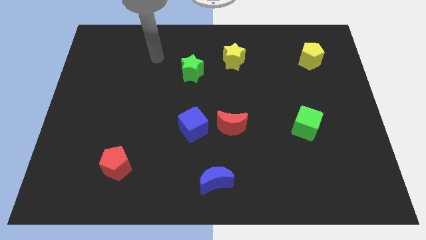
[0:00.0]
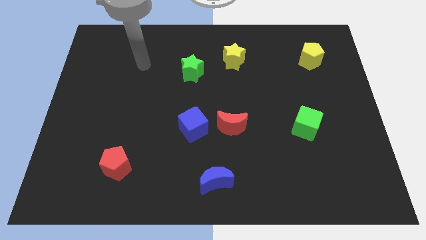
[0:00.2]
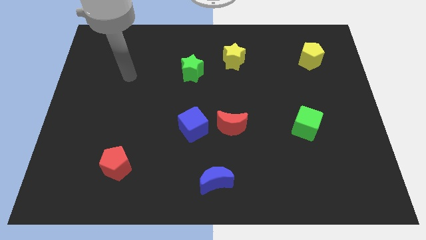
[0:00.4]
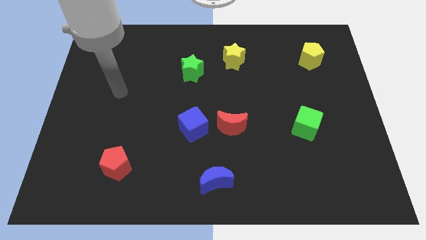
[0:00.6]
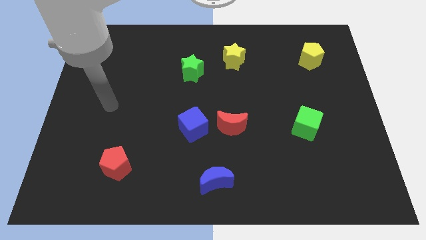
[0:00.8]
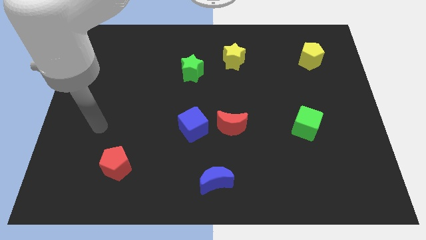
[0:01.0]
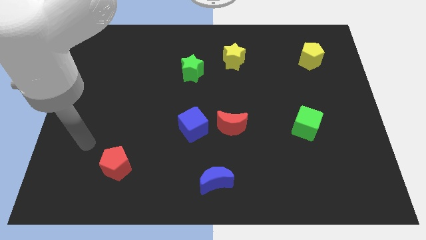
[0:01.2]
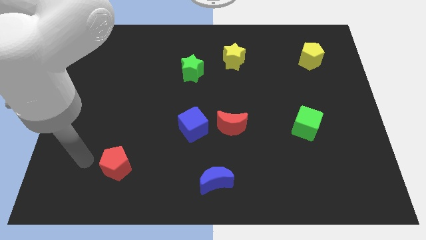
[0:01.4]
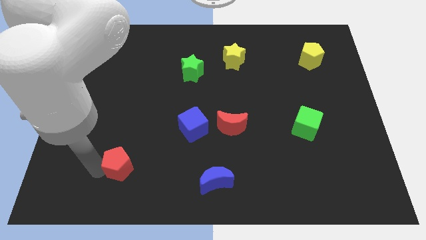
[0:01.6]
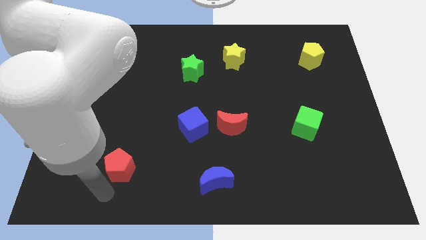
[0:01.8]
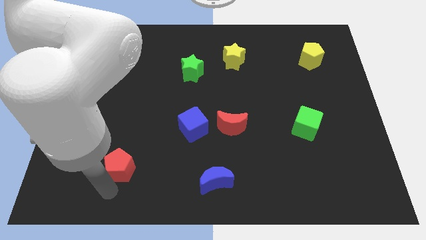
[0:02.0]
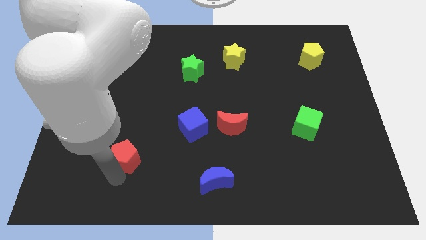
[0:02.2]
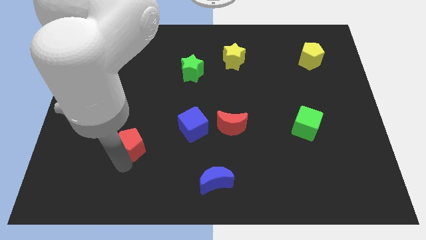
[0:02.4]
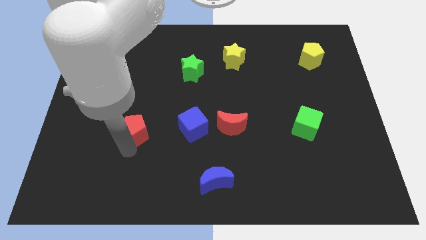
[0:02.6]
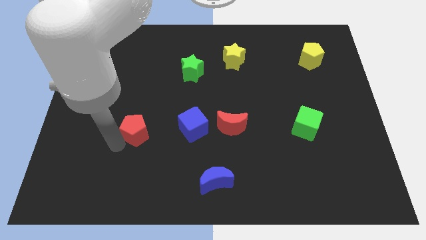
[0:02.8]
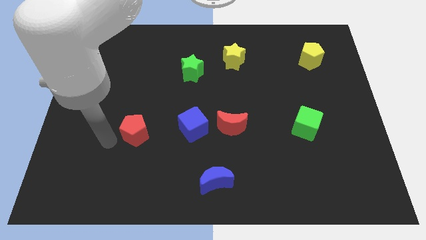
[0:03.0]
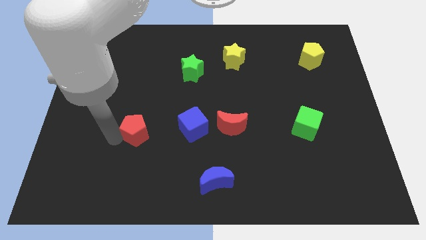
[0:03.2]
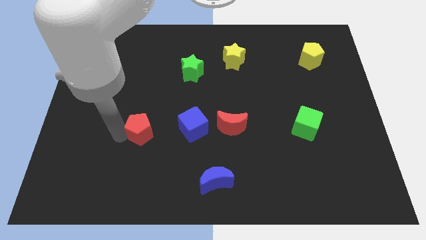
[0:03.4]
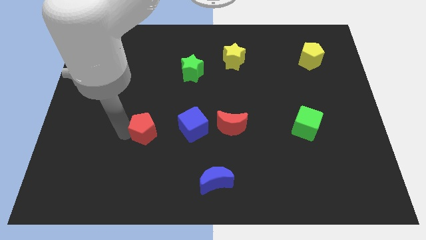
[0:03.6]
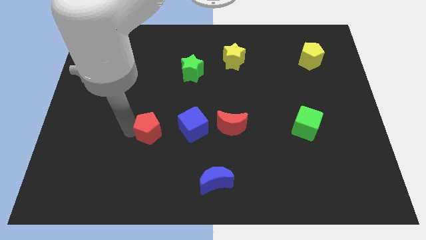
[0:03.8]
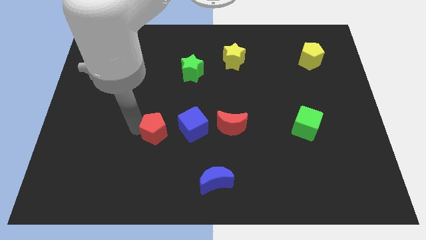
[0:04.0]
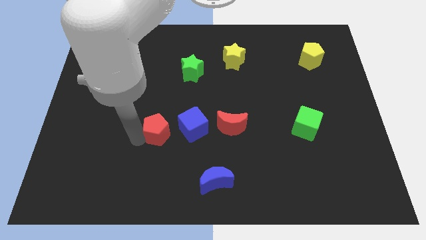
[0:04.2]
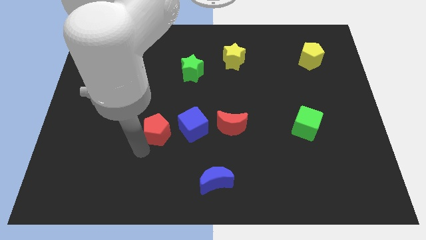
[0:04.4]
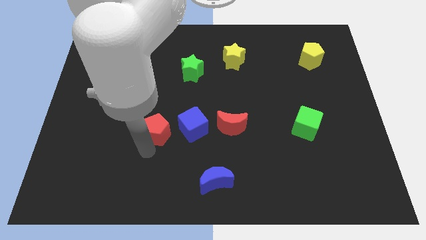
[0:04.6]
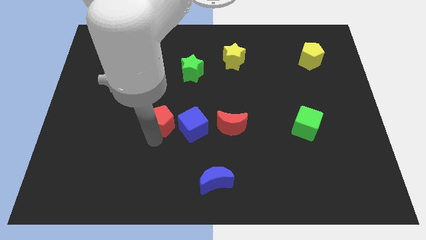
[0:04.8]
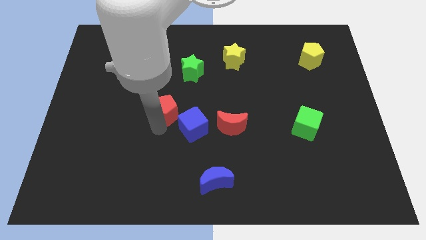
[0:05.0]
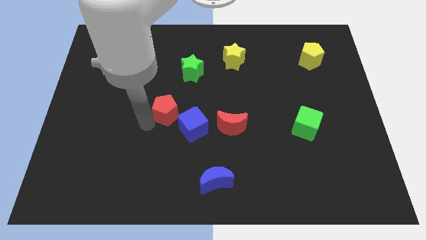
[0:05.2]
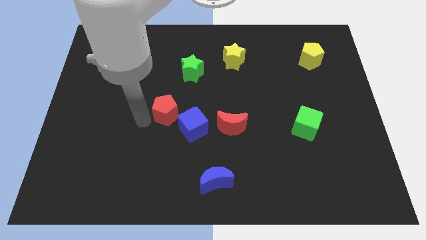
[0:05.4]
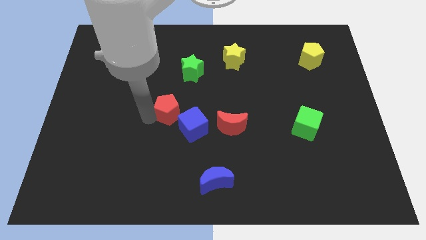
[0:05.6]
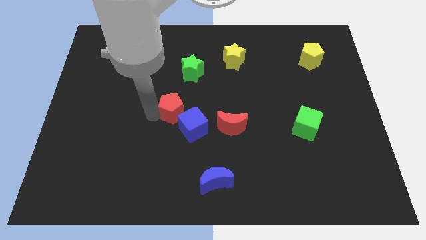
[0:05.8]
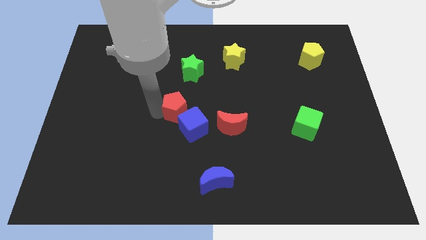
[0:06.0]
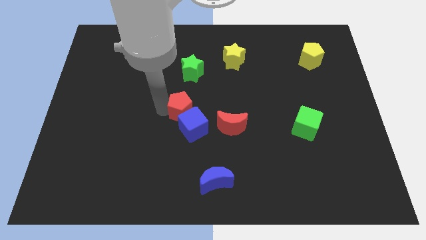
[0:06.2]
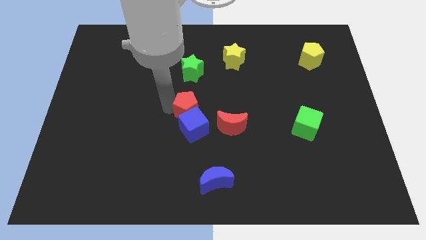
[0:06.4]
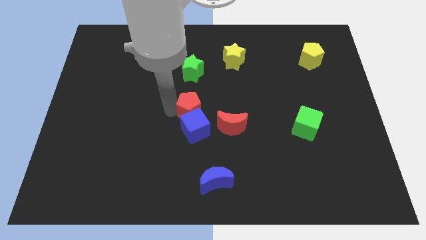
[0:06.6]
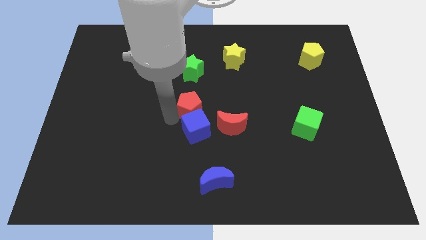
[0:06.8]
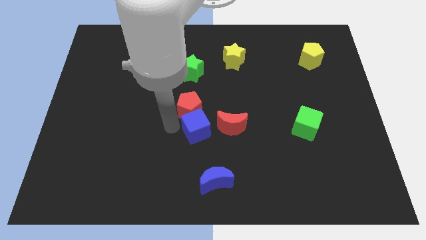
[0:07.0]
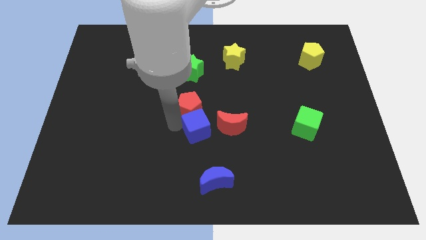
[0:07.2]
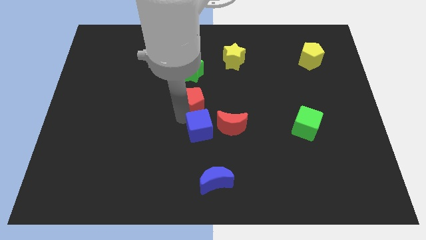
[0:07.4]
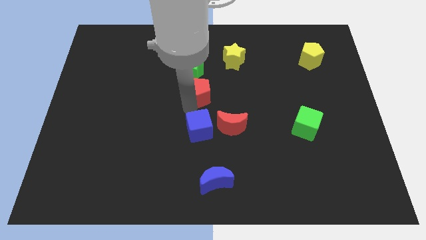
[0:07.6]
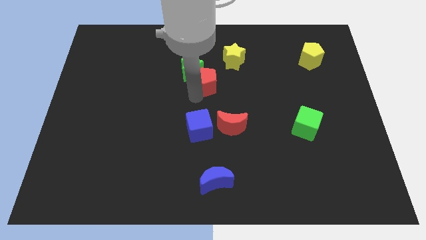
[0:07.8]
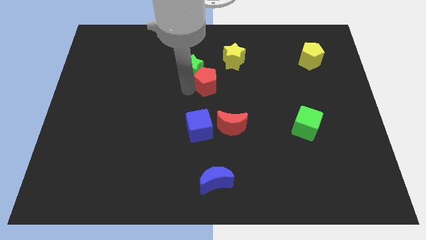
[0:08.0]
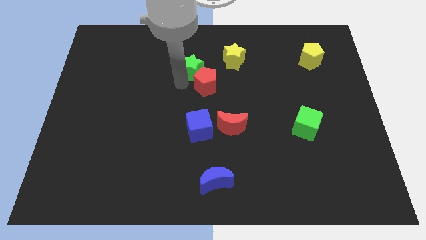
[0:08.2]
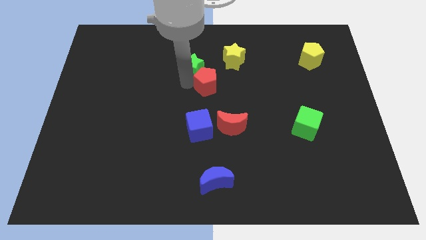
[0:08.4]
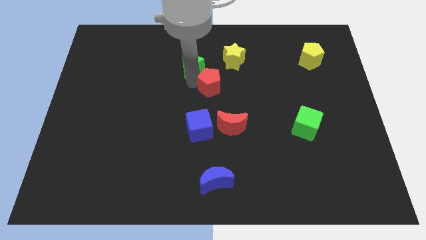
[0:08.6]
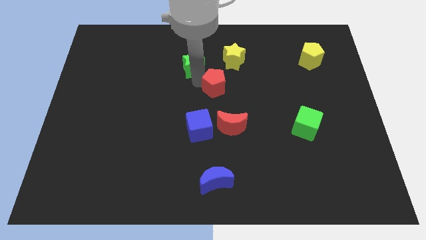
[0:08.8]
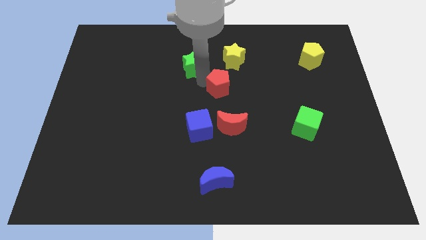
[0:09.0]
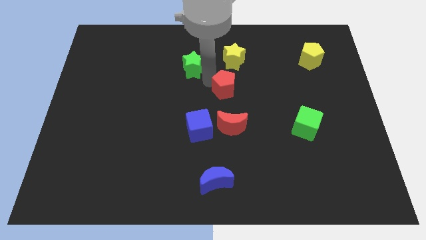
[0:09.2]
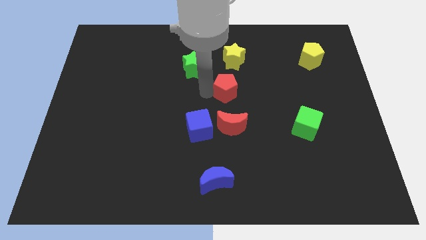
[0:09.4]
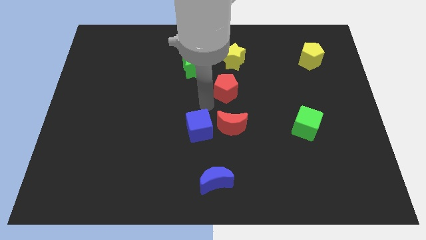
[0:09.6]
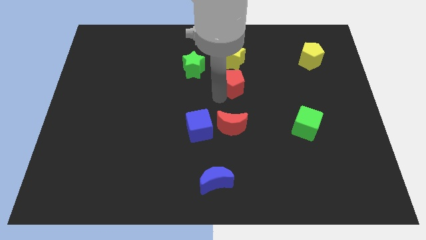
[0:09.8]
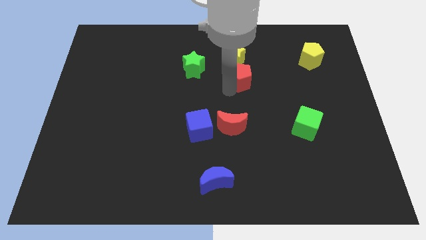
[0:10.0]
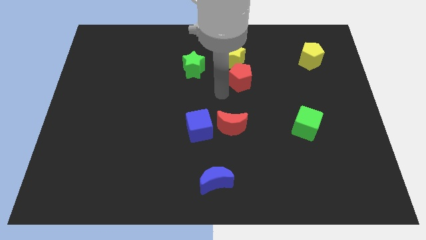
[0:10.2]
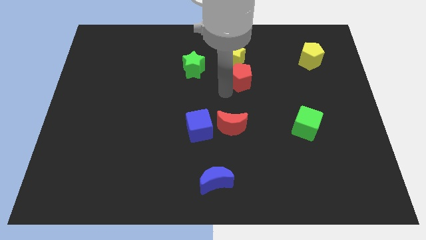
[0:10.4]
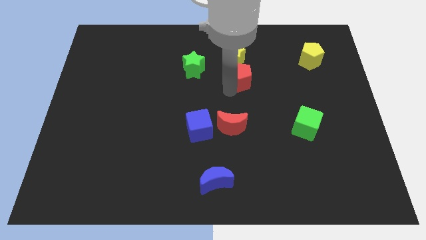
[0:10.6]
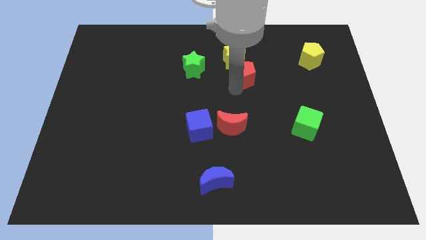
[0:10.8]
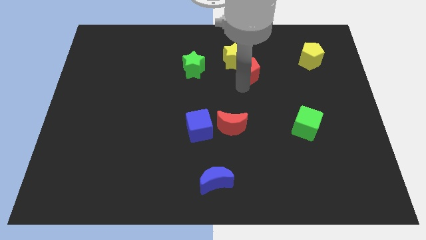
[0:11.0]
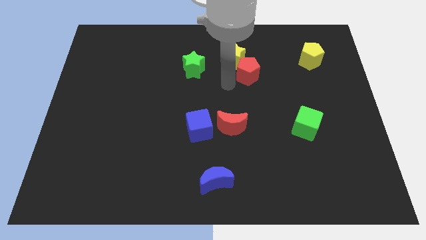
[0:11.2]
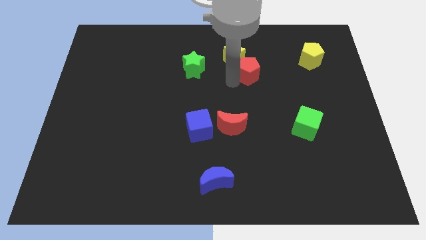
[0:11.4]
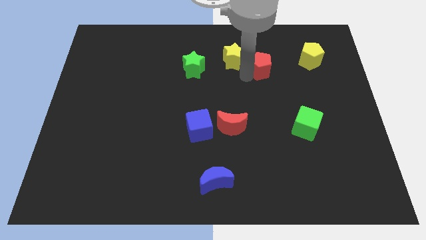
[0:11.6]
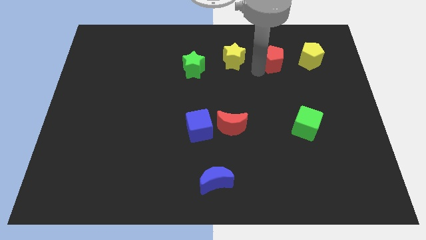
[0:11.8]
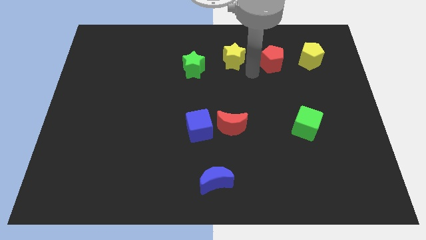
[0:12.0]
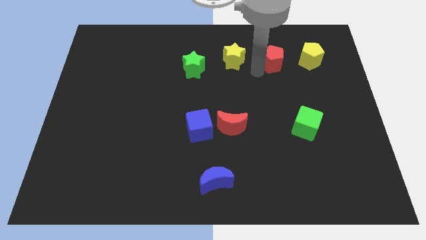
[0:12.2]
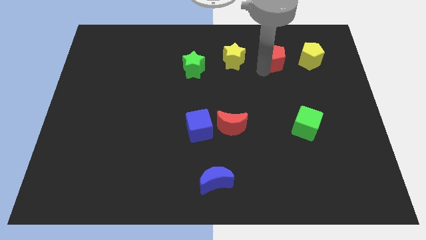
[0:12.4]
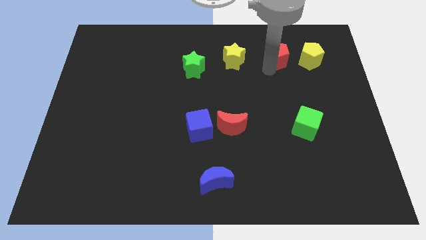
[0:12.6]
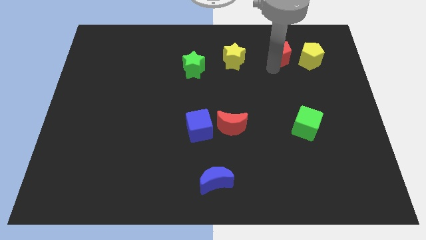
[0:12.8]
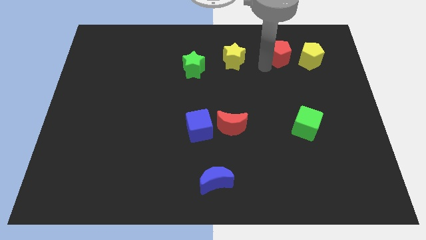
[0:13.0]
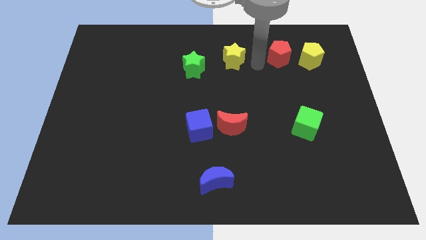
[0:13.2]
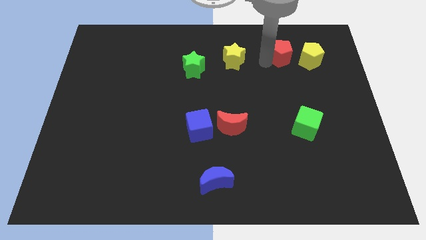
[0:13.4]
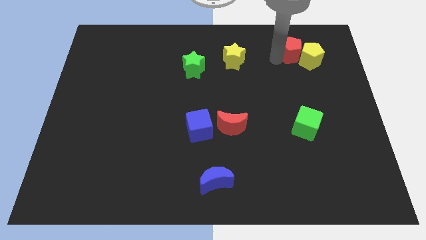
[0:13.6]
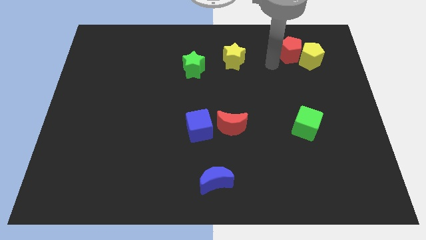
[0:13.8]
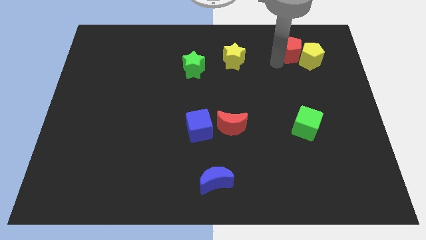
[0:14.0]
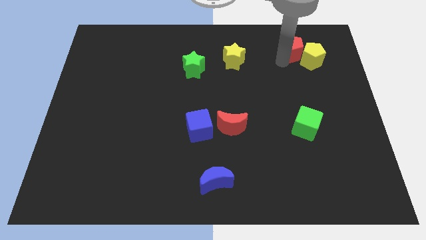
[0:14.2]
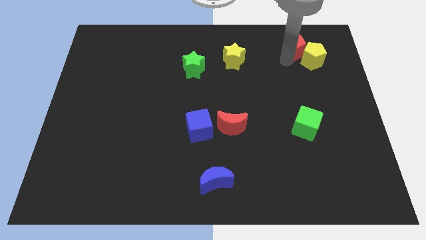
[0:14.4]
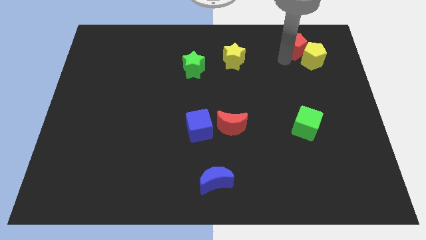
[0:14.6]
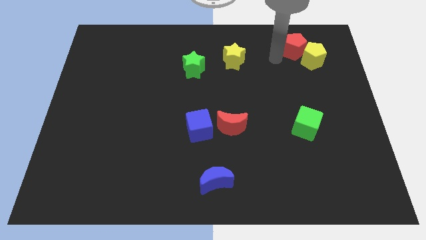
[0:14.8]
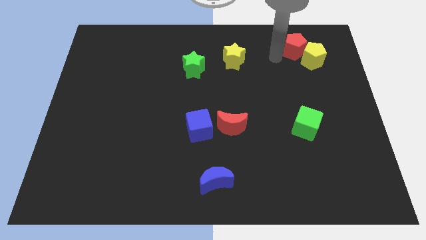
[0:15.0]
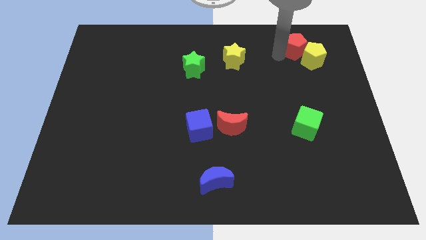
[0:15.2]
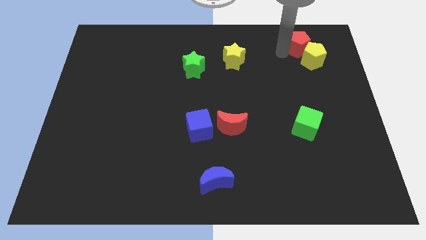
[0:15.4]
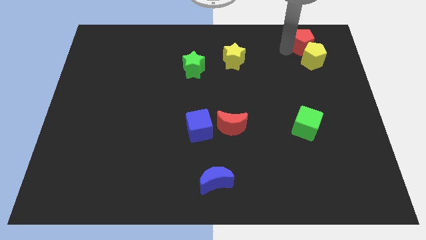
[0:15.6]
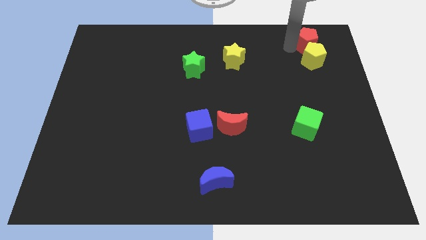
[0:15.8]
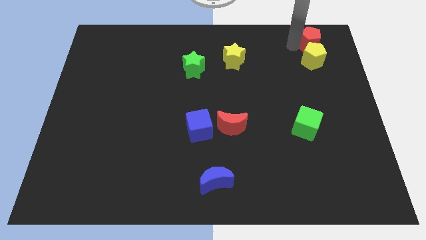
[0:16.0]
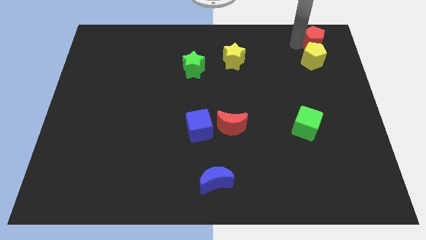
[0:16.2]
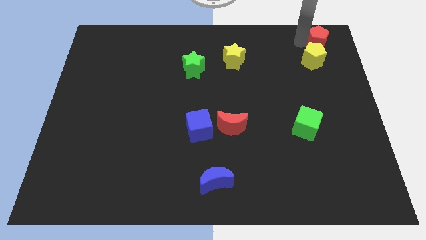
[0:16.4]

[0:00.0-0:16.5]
put the red pentagon to the upper right corner
